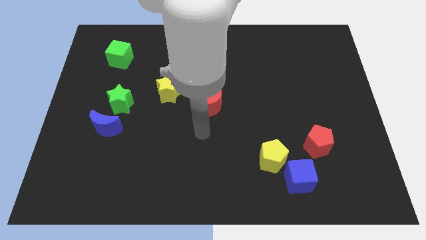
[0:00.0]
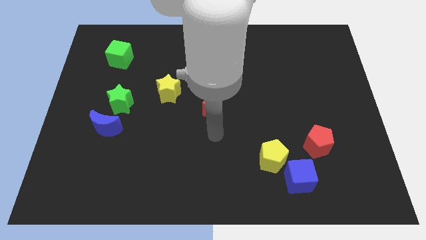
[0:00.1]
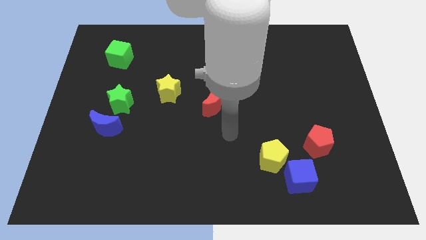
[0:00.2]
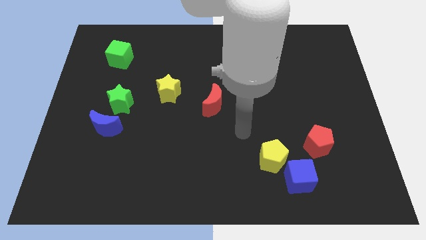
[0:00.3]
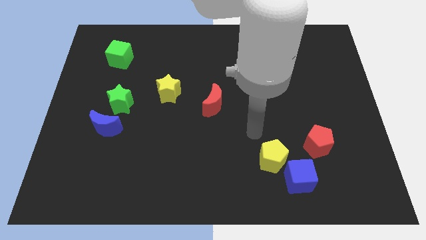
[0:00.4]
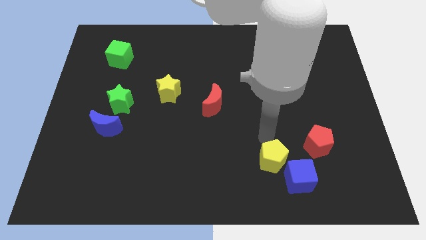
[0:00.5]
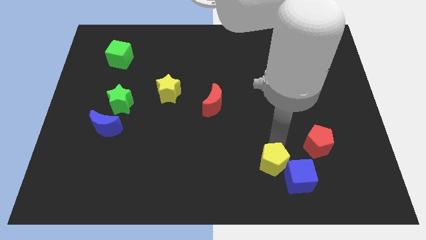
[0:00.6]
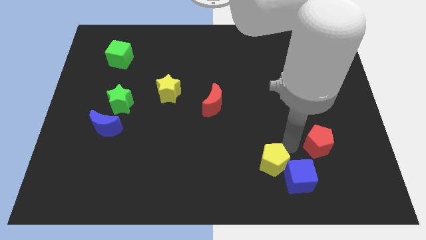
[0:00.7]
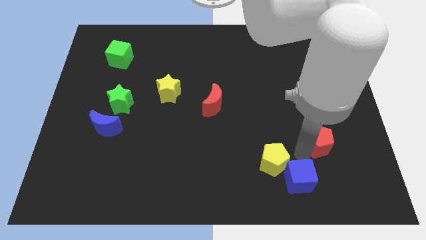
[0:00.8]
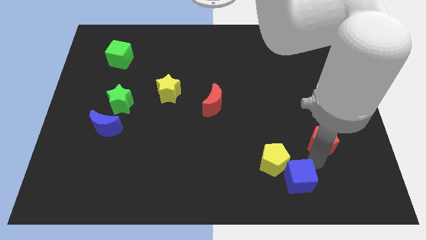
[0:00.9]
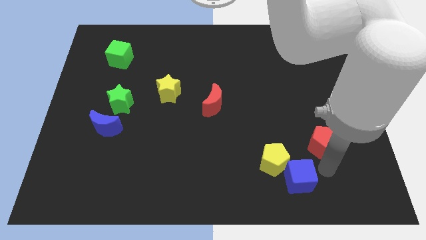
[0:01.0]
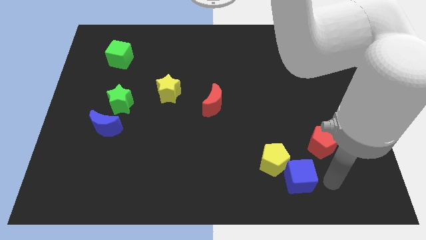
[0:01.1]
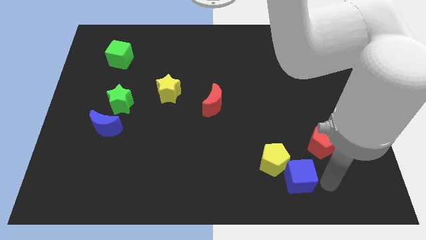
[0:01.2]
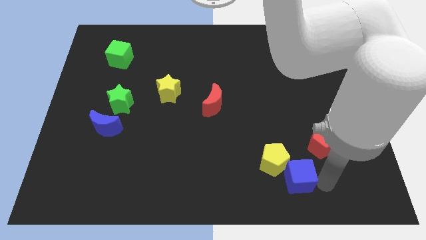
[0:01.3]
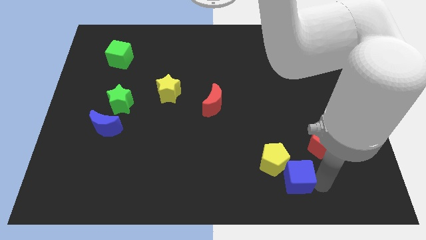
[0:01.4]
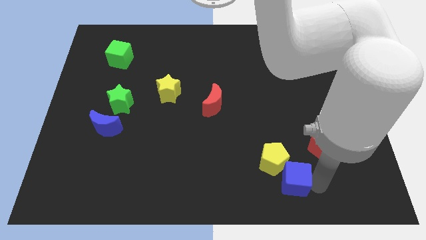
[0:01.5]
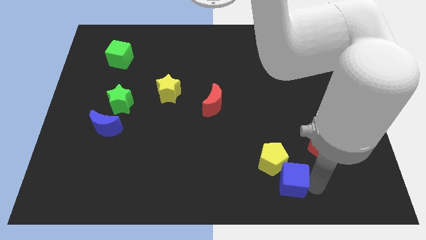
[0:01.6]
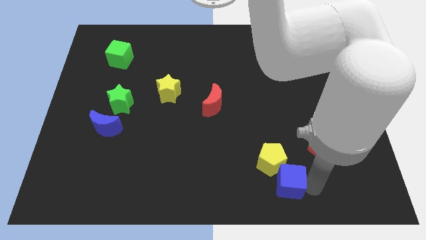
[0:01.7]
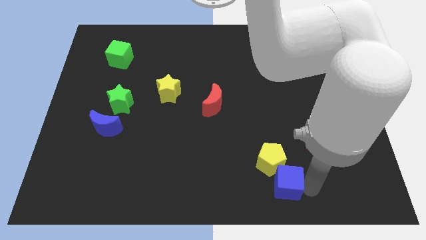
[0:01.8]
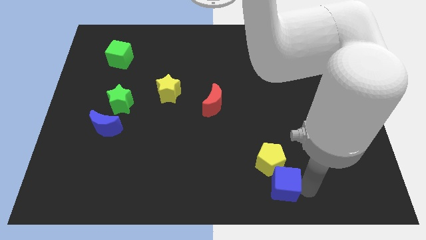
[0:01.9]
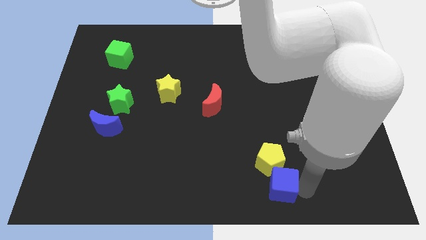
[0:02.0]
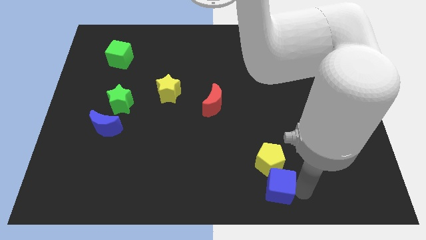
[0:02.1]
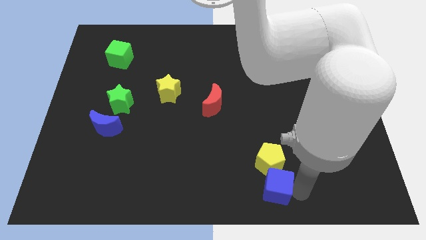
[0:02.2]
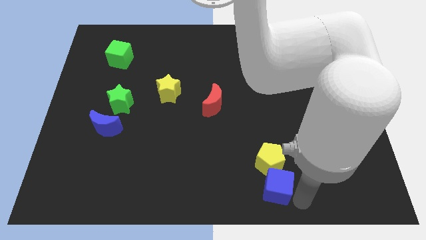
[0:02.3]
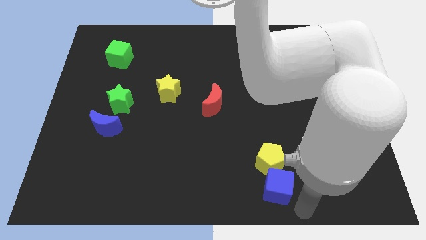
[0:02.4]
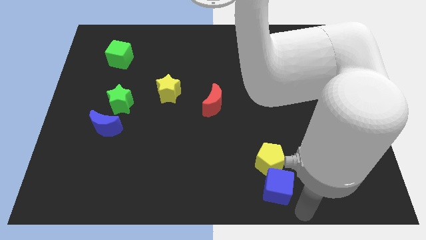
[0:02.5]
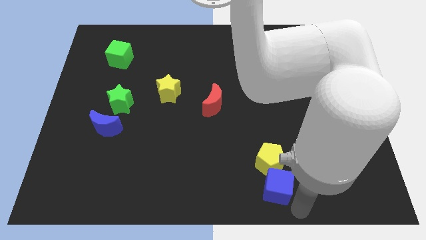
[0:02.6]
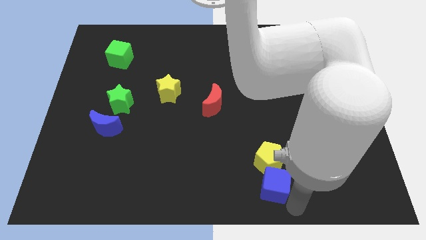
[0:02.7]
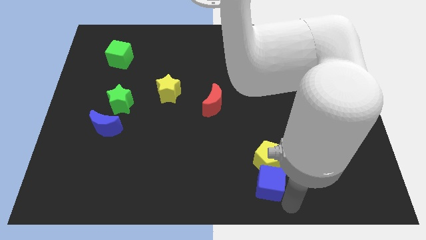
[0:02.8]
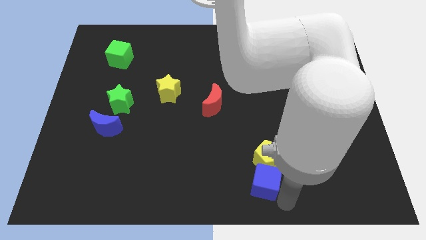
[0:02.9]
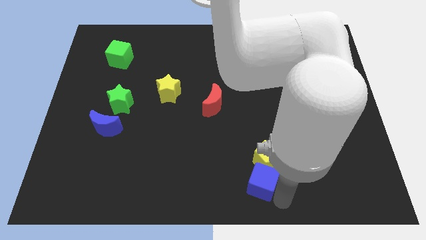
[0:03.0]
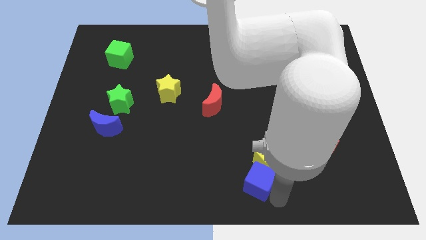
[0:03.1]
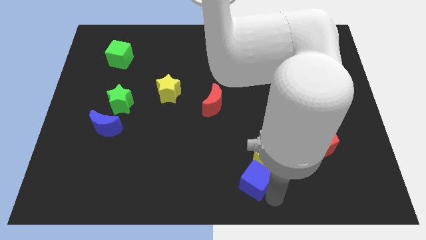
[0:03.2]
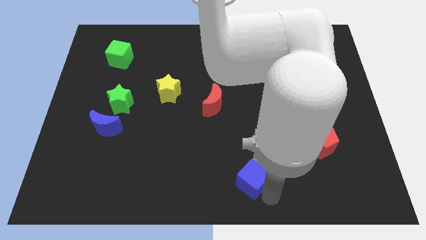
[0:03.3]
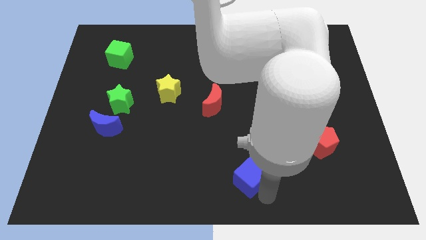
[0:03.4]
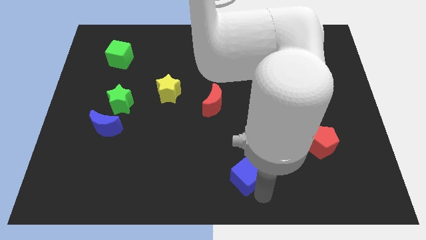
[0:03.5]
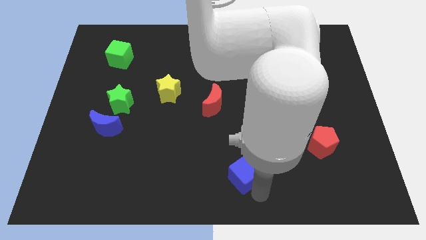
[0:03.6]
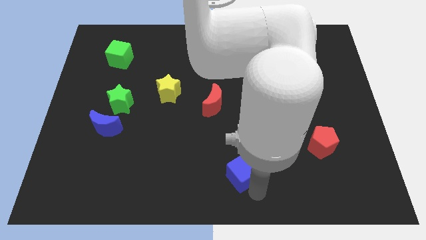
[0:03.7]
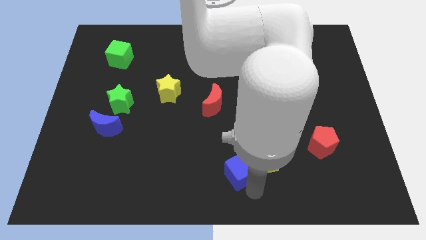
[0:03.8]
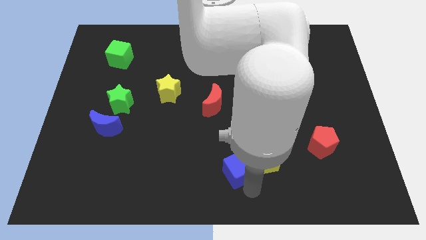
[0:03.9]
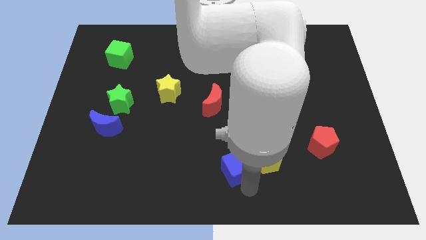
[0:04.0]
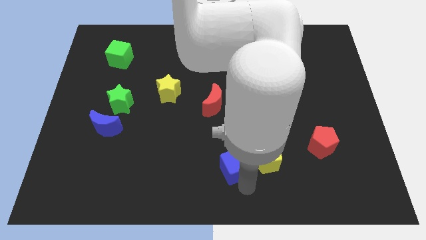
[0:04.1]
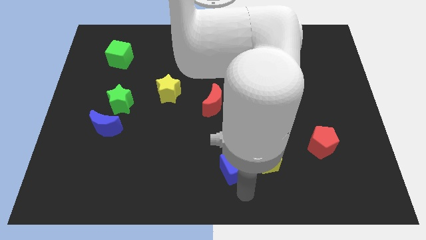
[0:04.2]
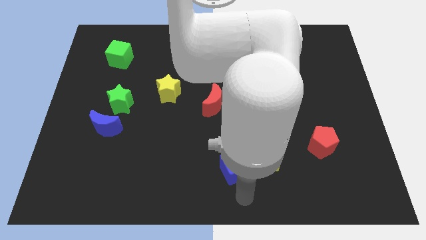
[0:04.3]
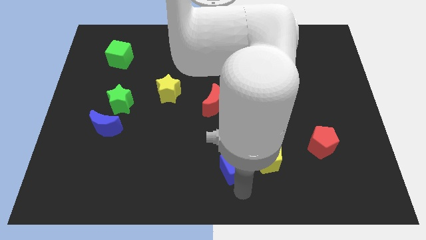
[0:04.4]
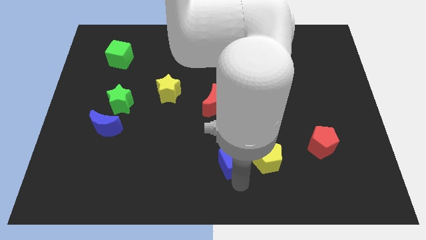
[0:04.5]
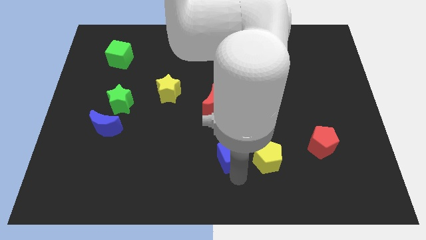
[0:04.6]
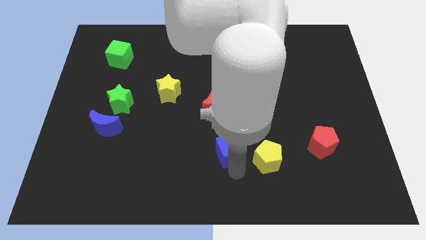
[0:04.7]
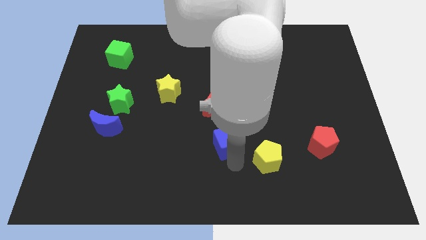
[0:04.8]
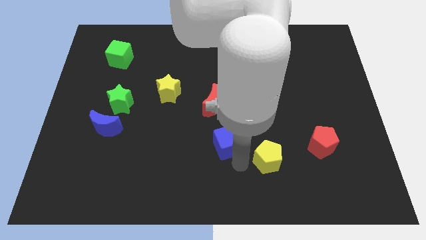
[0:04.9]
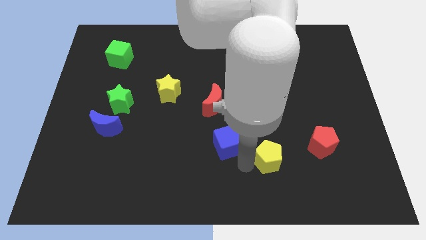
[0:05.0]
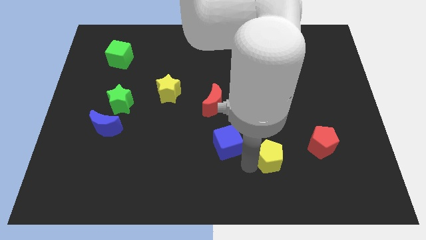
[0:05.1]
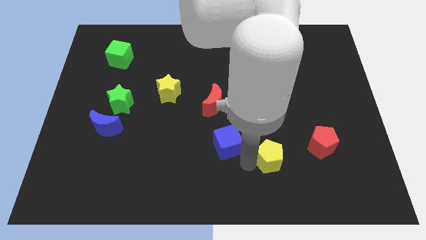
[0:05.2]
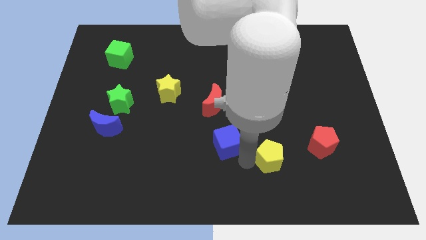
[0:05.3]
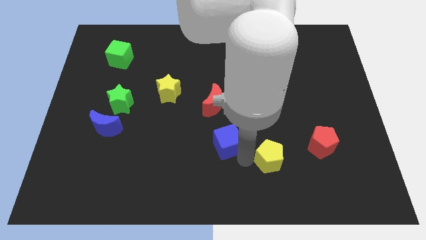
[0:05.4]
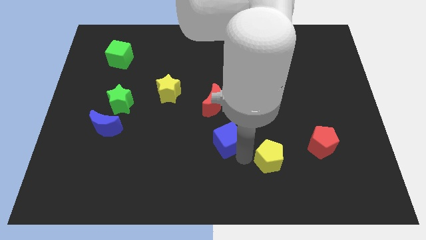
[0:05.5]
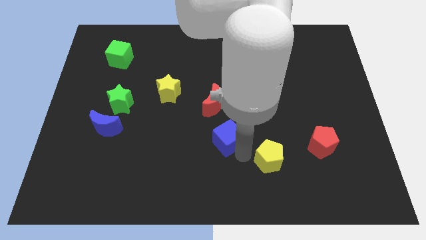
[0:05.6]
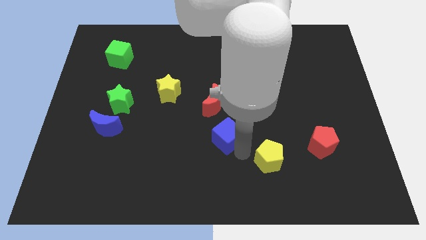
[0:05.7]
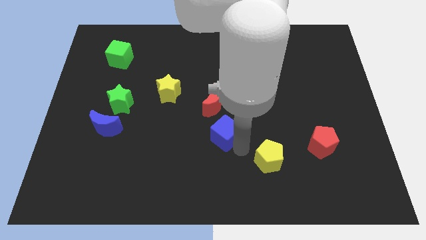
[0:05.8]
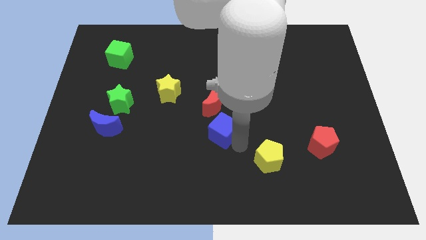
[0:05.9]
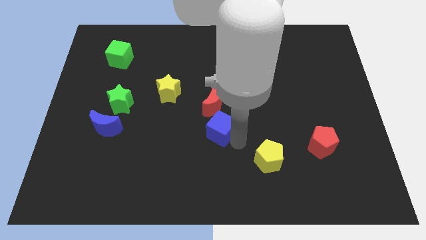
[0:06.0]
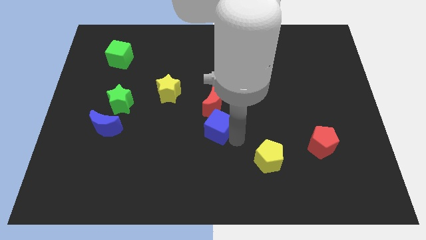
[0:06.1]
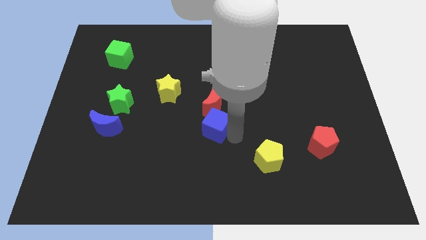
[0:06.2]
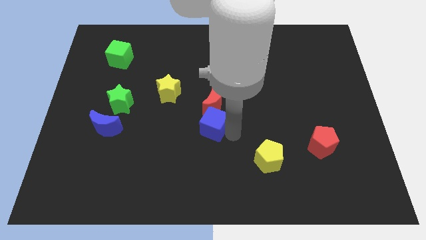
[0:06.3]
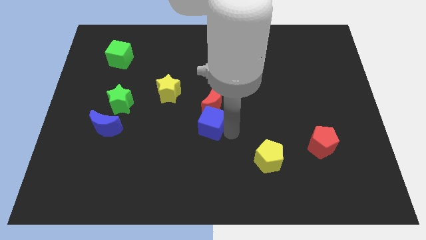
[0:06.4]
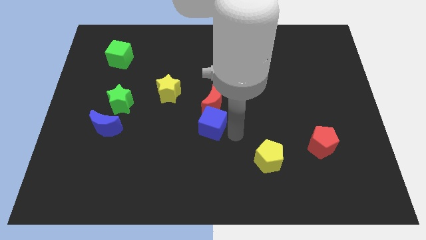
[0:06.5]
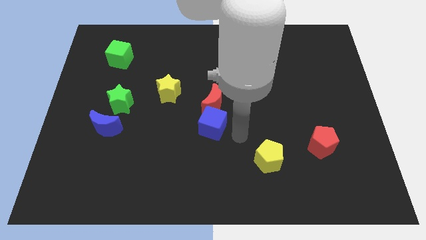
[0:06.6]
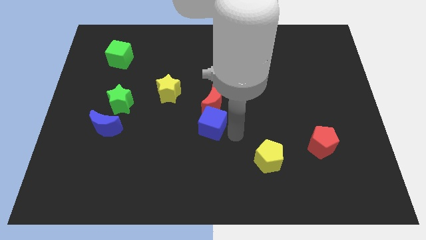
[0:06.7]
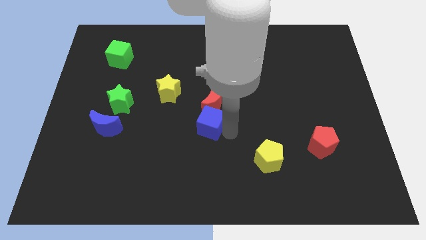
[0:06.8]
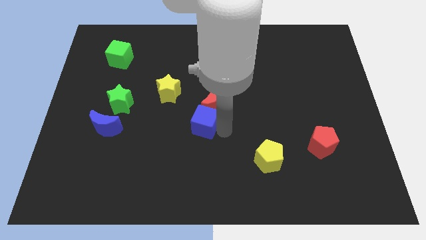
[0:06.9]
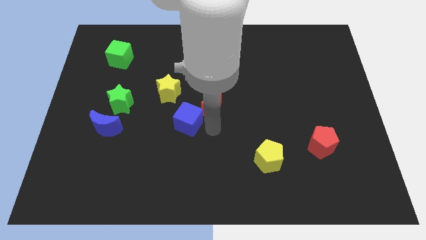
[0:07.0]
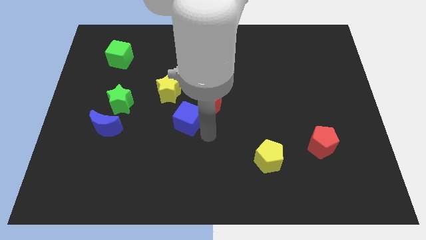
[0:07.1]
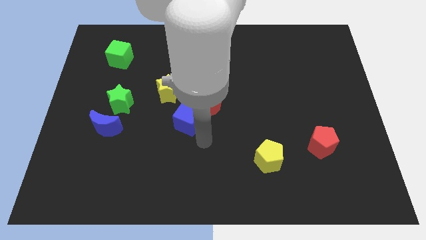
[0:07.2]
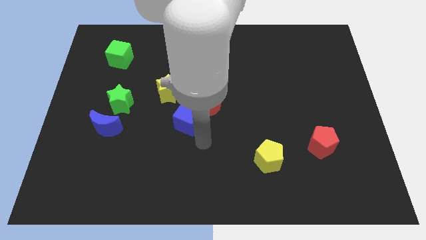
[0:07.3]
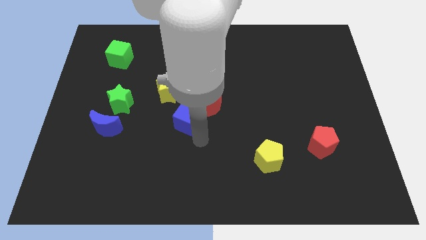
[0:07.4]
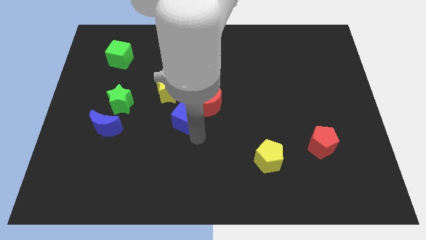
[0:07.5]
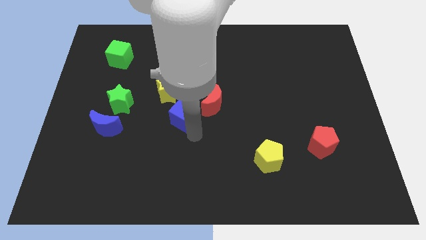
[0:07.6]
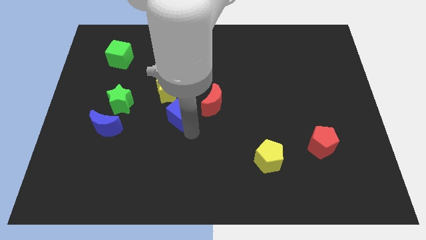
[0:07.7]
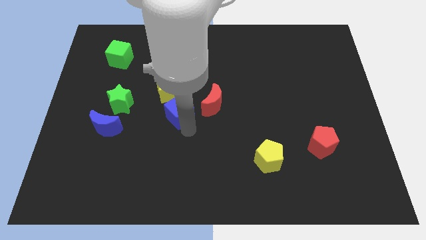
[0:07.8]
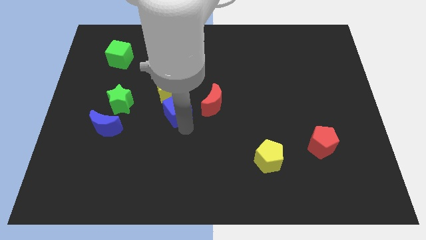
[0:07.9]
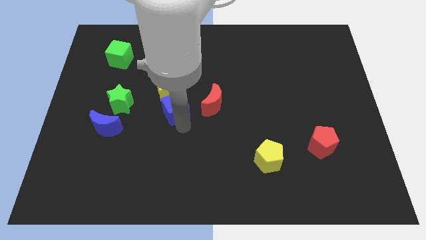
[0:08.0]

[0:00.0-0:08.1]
move the blue cube to the yellow star
